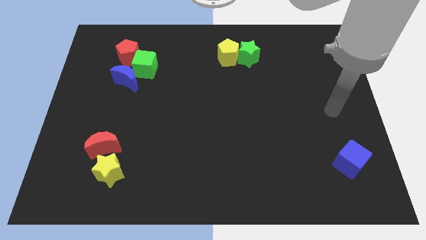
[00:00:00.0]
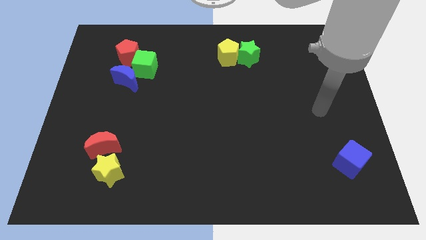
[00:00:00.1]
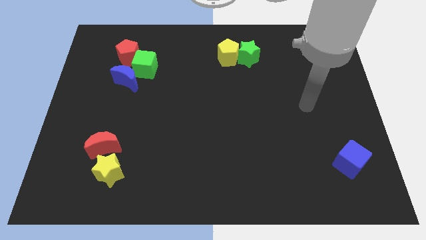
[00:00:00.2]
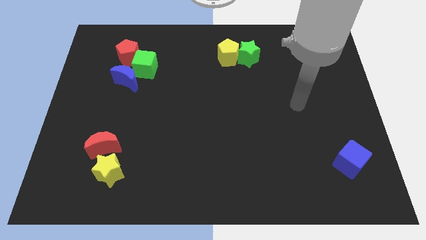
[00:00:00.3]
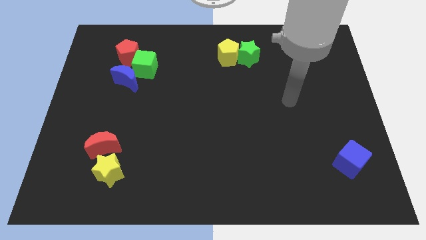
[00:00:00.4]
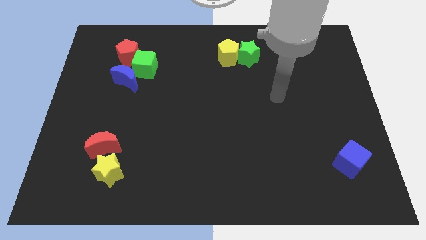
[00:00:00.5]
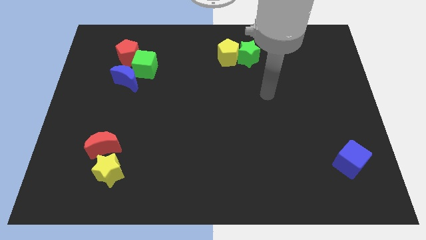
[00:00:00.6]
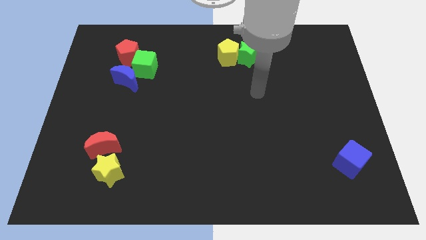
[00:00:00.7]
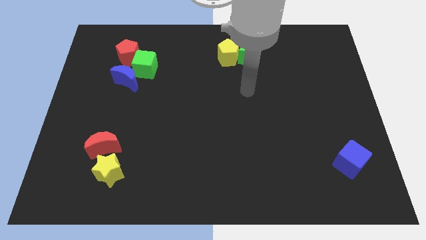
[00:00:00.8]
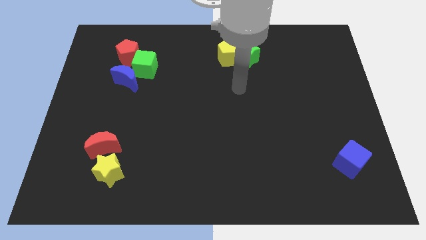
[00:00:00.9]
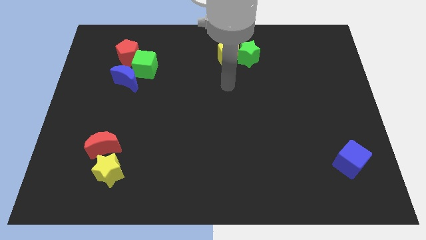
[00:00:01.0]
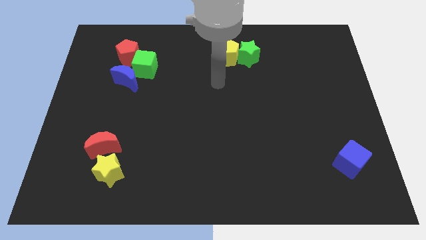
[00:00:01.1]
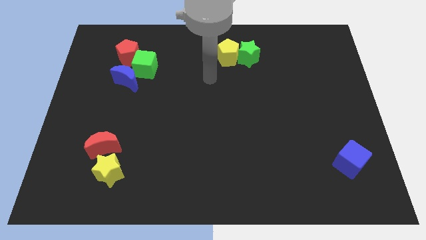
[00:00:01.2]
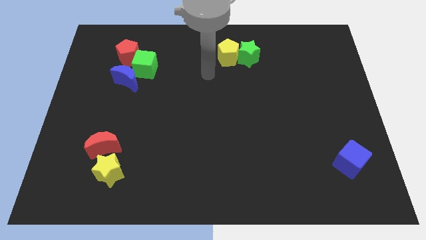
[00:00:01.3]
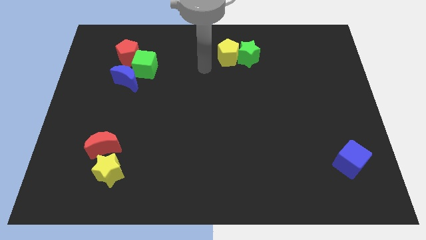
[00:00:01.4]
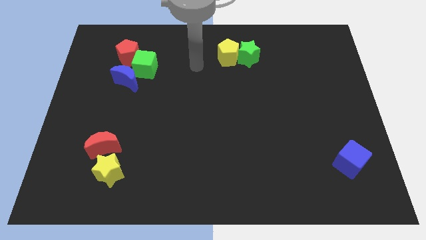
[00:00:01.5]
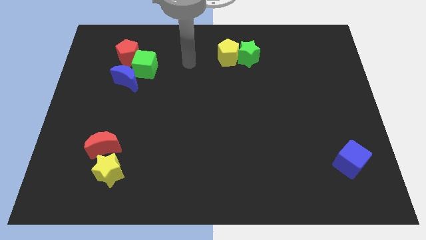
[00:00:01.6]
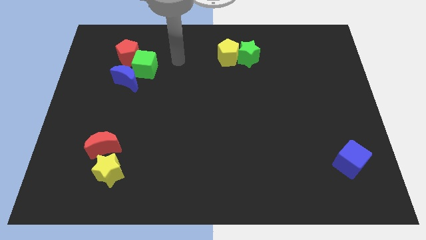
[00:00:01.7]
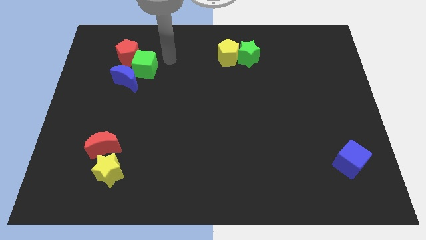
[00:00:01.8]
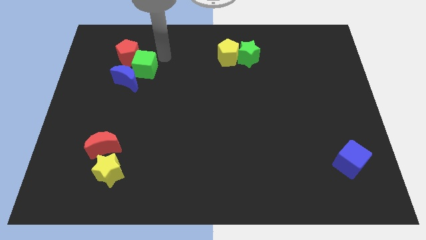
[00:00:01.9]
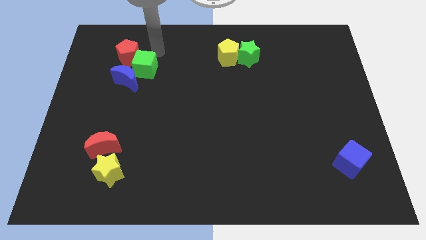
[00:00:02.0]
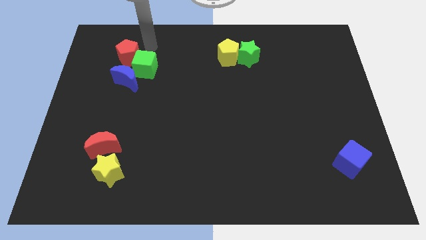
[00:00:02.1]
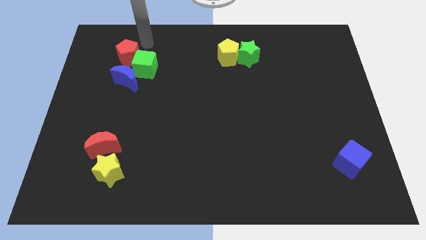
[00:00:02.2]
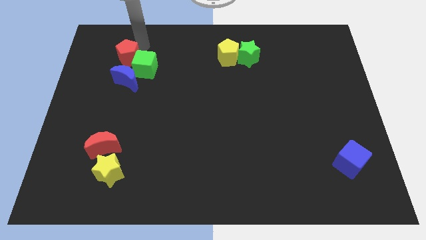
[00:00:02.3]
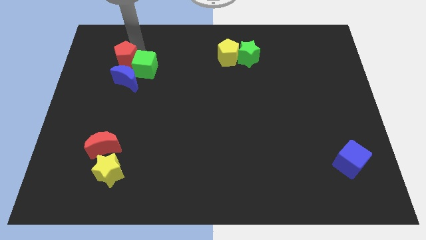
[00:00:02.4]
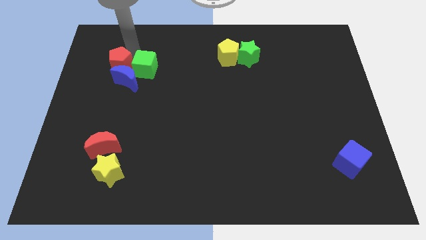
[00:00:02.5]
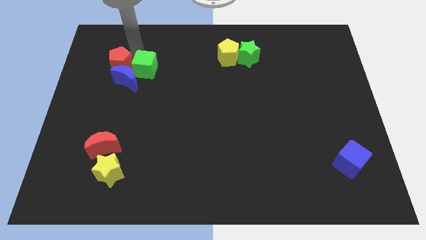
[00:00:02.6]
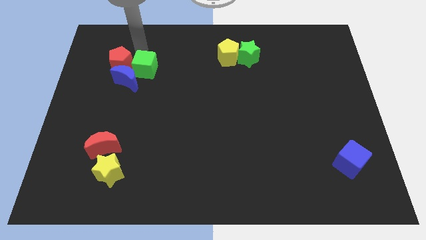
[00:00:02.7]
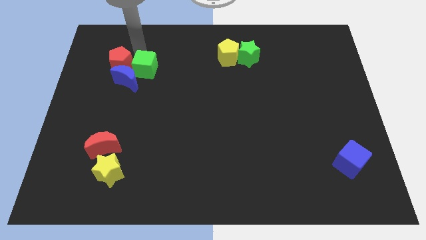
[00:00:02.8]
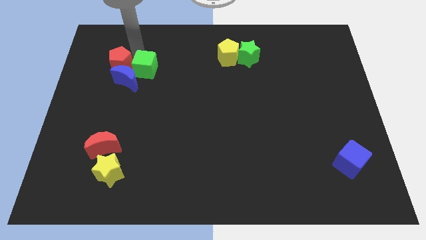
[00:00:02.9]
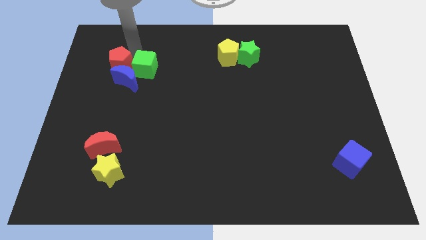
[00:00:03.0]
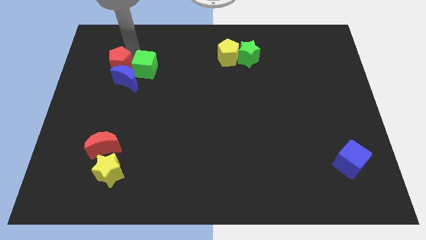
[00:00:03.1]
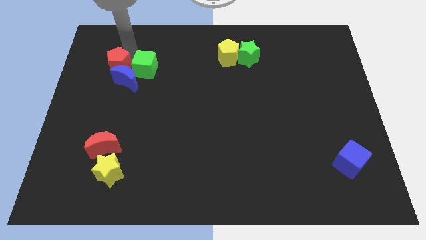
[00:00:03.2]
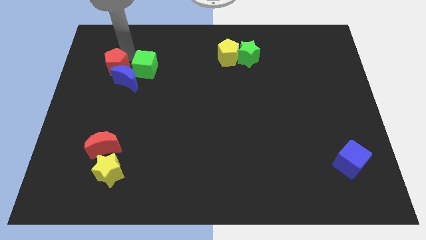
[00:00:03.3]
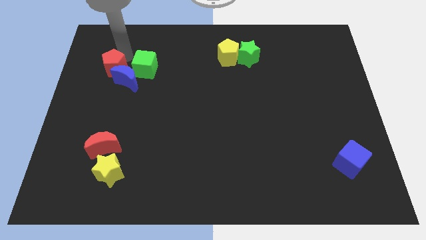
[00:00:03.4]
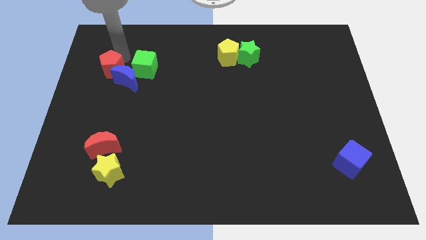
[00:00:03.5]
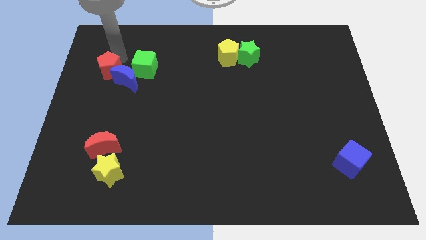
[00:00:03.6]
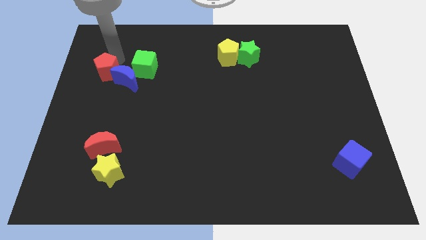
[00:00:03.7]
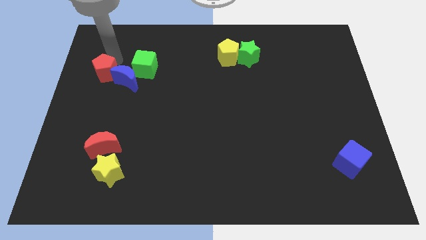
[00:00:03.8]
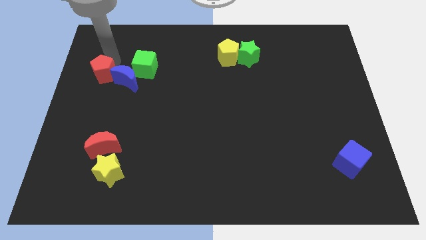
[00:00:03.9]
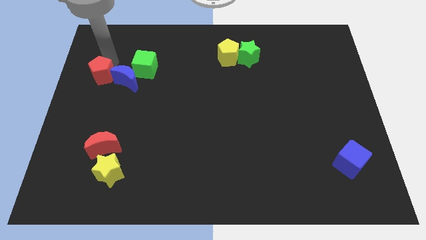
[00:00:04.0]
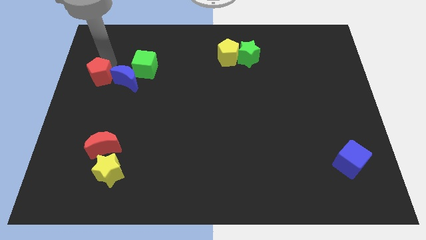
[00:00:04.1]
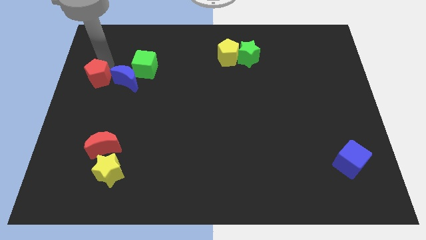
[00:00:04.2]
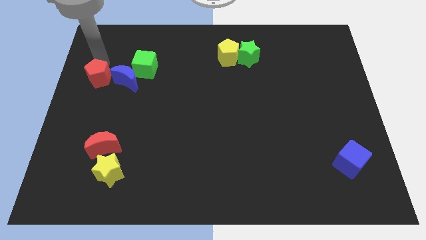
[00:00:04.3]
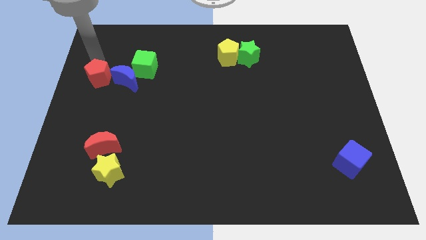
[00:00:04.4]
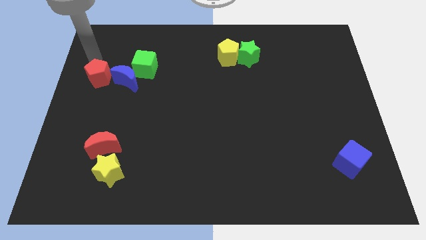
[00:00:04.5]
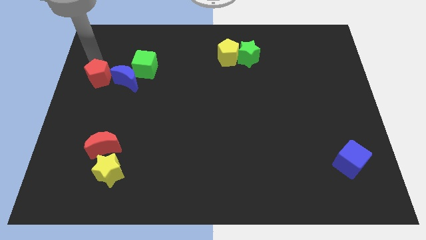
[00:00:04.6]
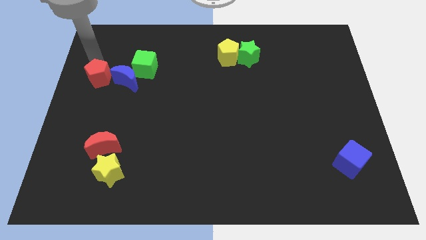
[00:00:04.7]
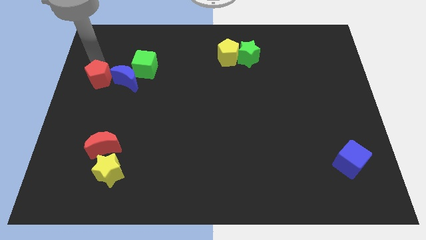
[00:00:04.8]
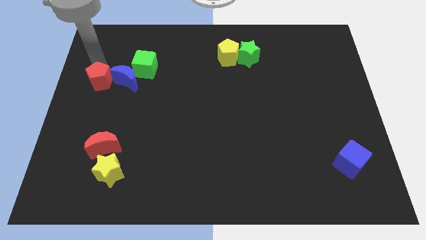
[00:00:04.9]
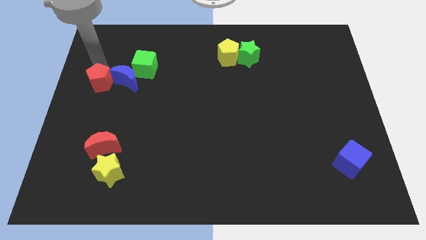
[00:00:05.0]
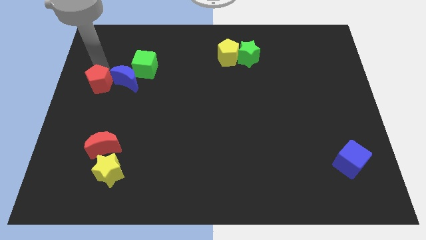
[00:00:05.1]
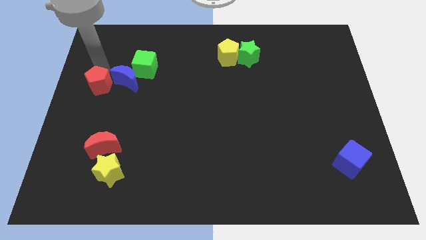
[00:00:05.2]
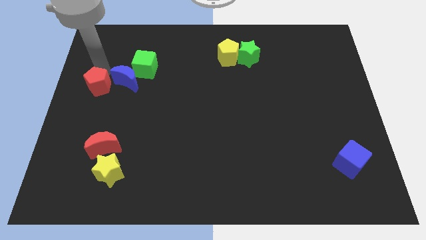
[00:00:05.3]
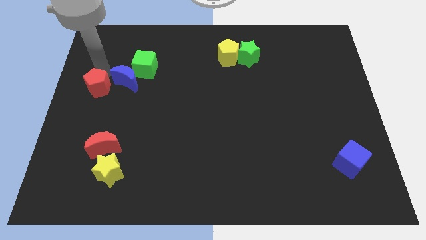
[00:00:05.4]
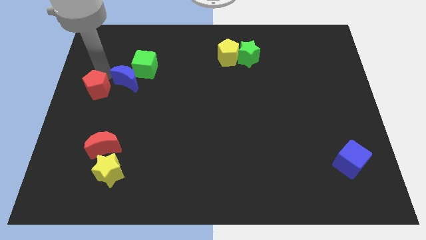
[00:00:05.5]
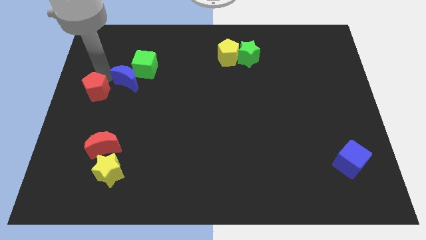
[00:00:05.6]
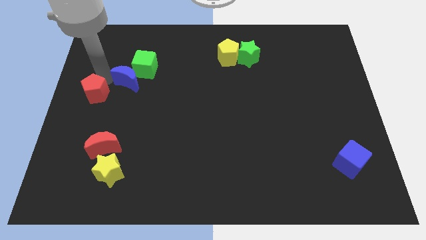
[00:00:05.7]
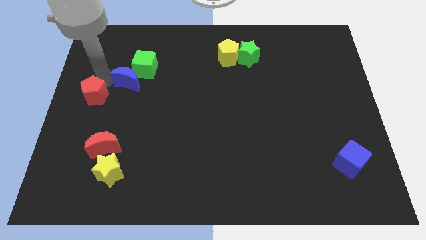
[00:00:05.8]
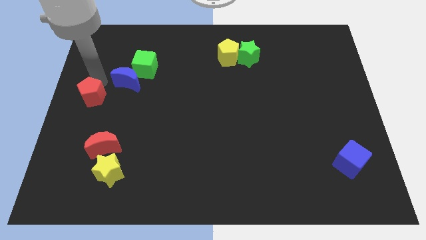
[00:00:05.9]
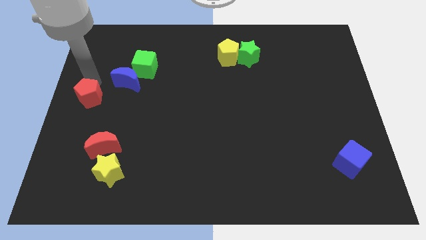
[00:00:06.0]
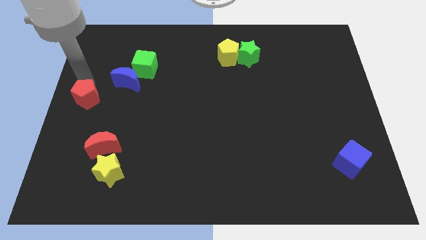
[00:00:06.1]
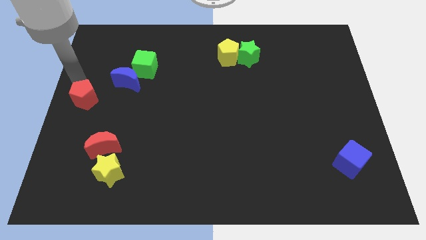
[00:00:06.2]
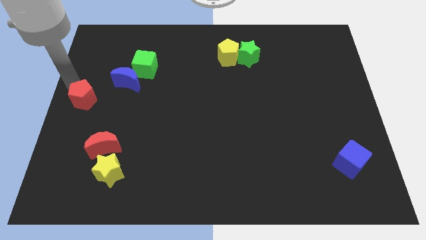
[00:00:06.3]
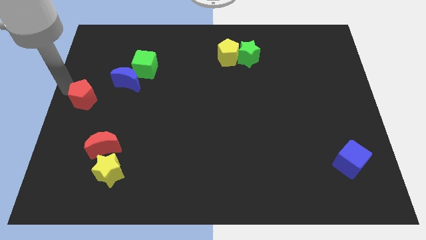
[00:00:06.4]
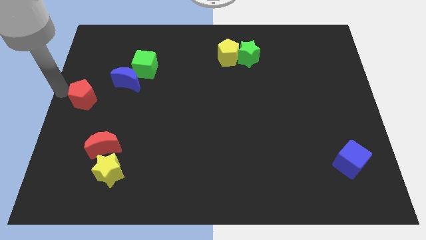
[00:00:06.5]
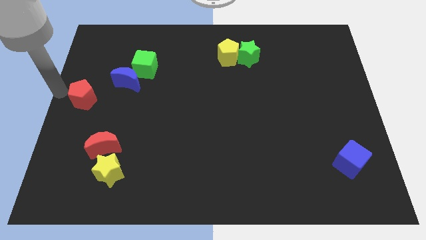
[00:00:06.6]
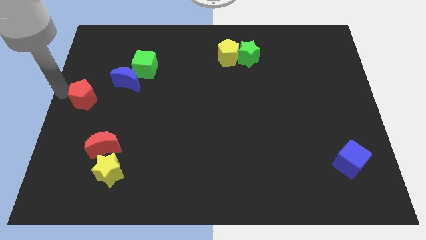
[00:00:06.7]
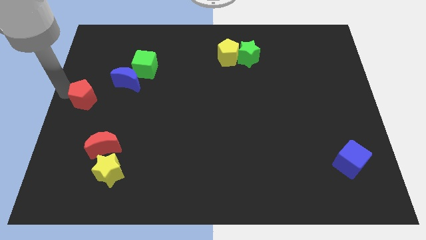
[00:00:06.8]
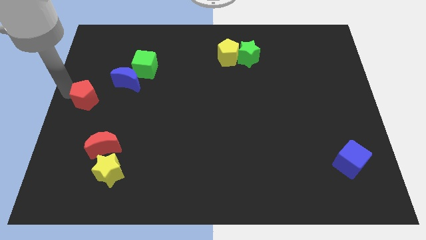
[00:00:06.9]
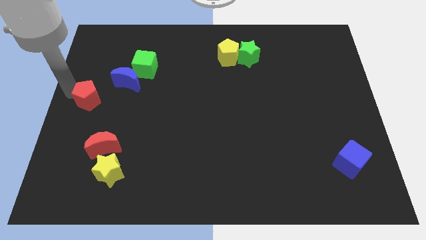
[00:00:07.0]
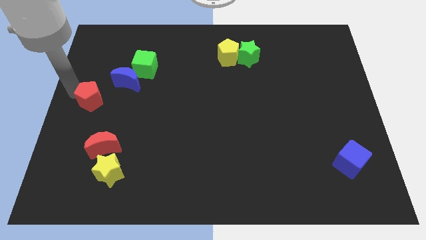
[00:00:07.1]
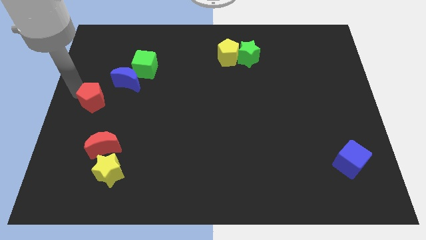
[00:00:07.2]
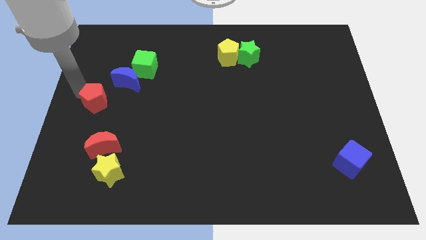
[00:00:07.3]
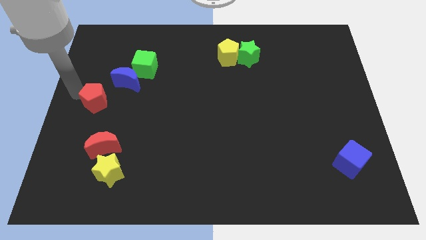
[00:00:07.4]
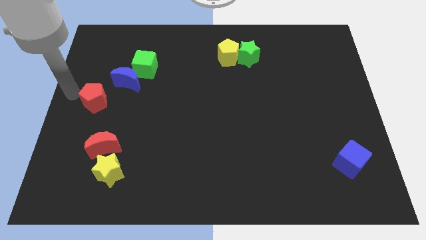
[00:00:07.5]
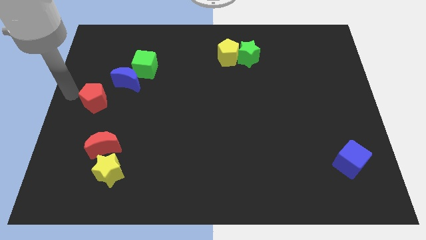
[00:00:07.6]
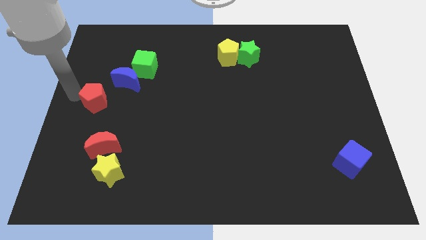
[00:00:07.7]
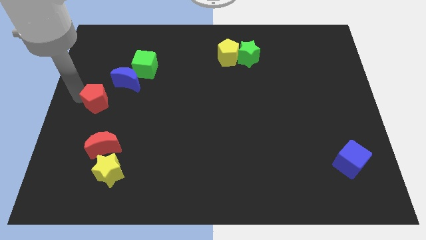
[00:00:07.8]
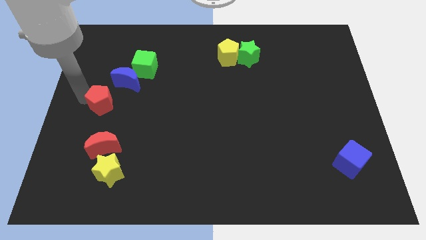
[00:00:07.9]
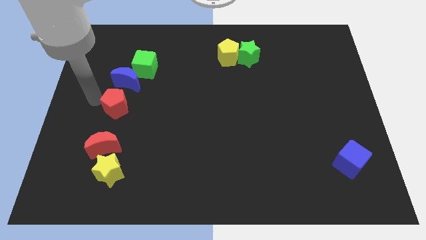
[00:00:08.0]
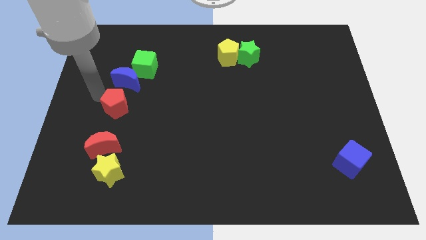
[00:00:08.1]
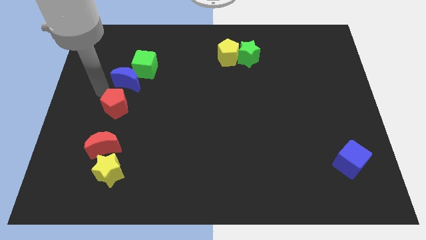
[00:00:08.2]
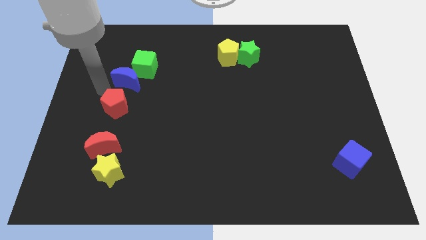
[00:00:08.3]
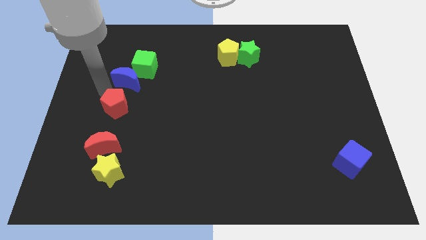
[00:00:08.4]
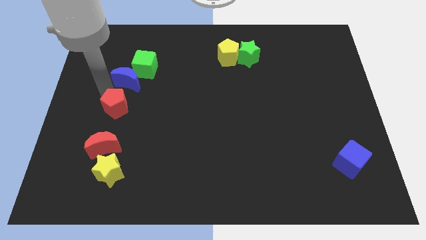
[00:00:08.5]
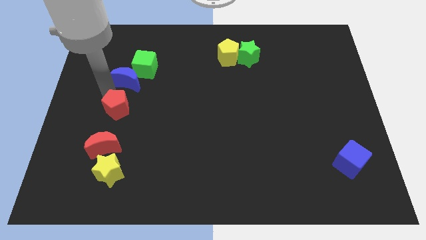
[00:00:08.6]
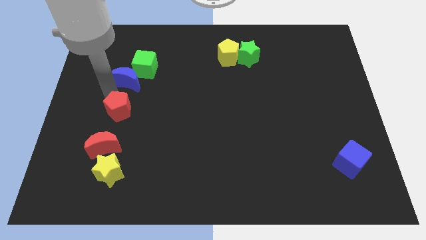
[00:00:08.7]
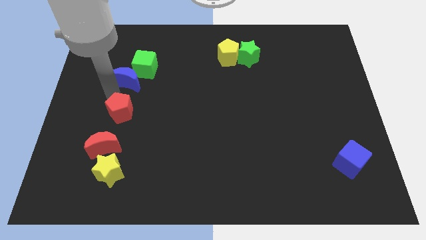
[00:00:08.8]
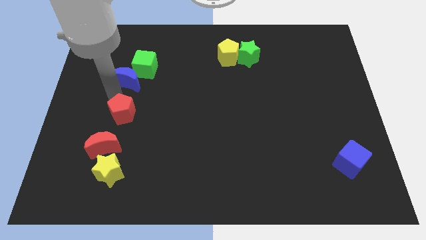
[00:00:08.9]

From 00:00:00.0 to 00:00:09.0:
push the red pentagon to the top right side of the red moon
